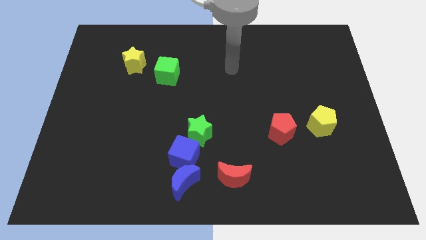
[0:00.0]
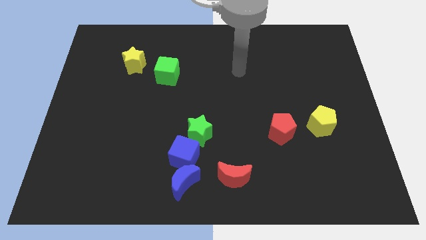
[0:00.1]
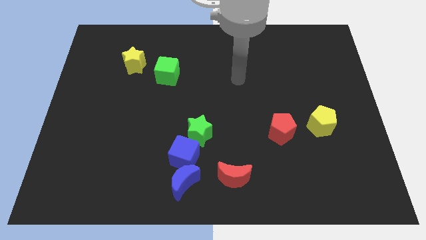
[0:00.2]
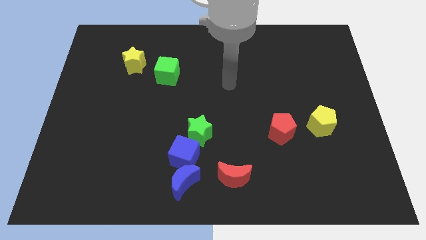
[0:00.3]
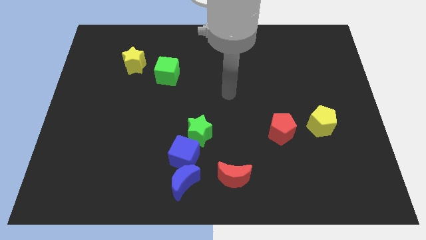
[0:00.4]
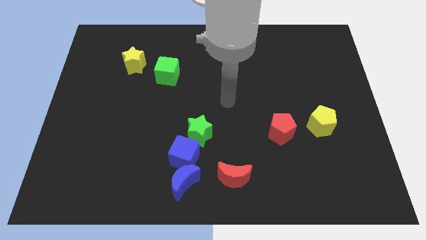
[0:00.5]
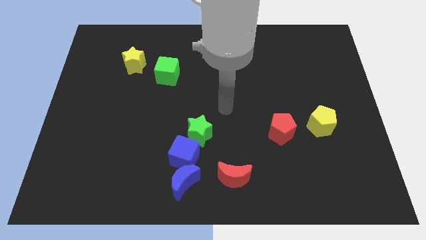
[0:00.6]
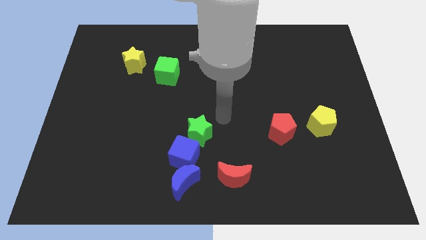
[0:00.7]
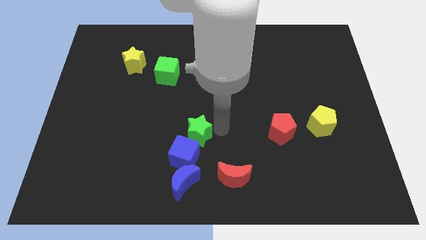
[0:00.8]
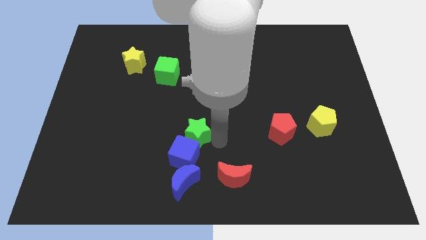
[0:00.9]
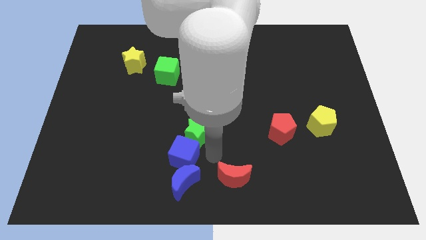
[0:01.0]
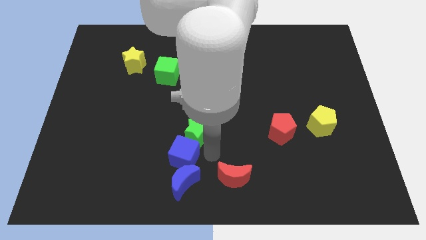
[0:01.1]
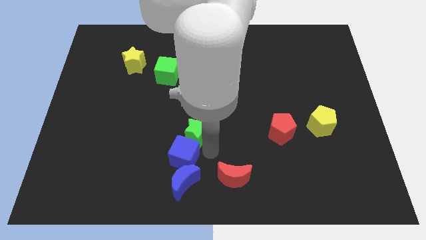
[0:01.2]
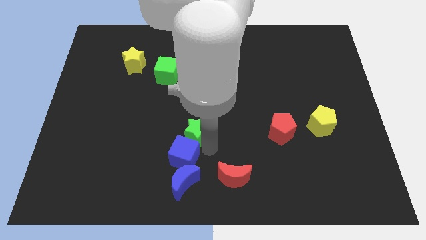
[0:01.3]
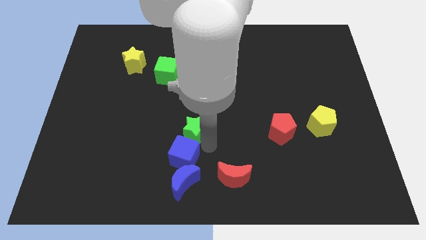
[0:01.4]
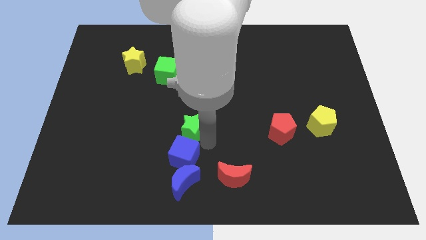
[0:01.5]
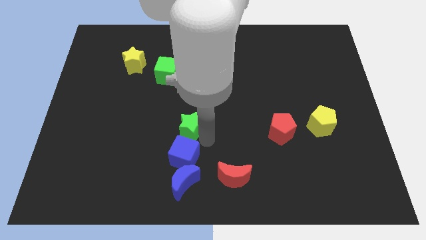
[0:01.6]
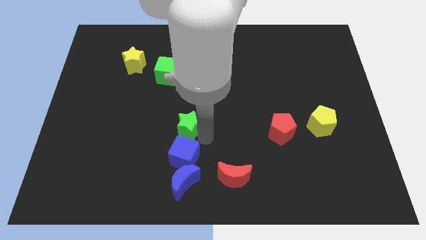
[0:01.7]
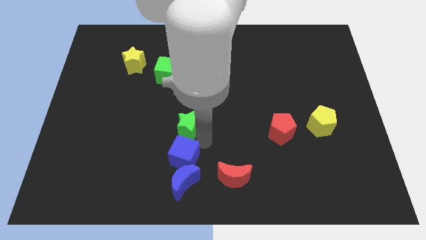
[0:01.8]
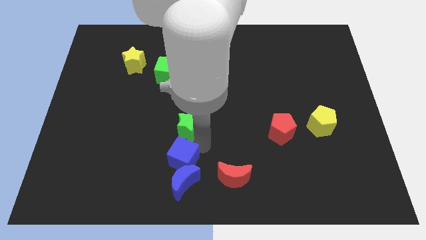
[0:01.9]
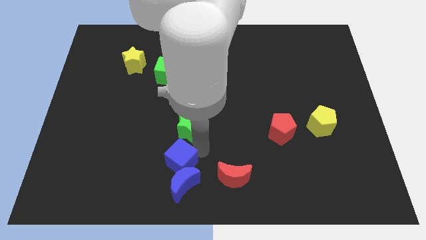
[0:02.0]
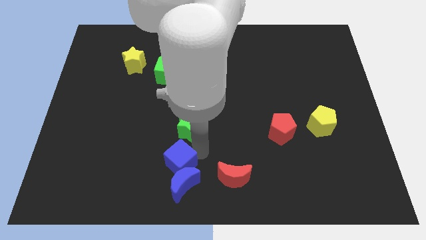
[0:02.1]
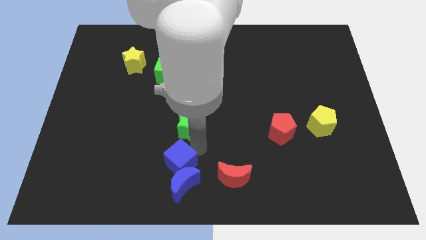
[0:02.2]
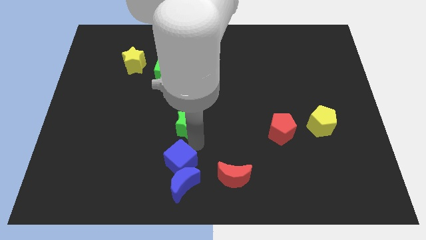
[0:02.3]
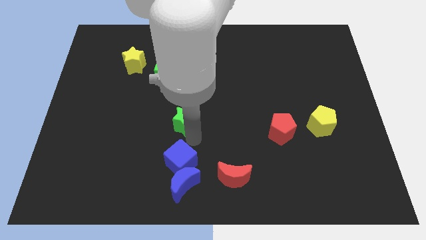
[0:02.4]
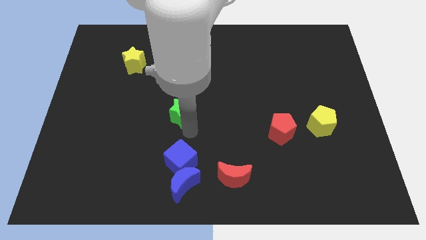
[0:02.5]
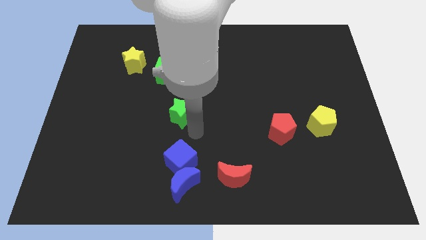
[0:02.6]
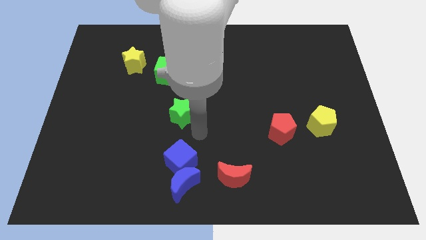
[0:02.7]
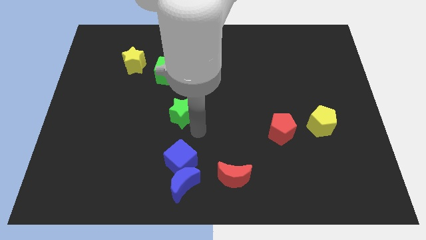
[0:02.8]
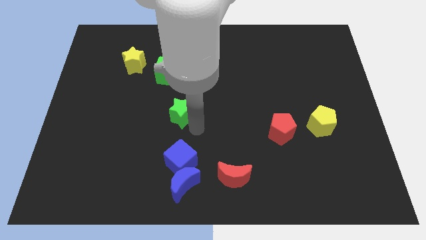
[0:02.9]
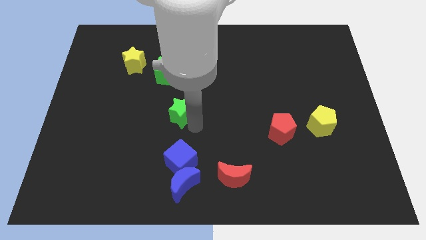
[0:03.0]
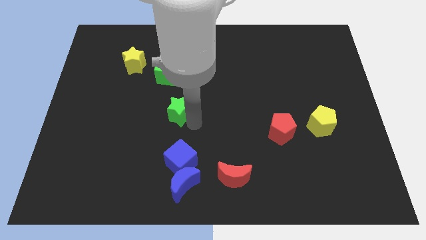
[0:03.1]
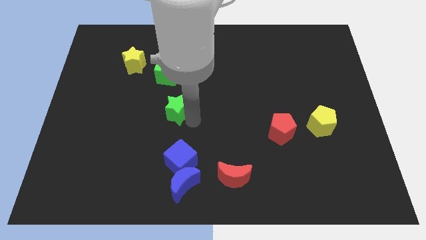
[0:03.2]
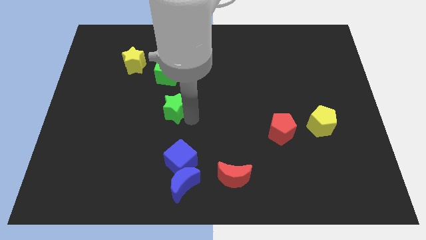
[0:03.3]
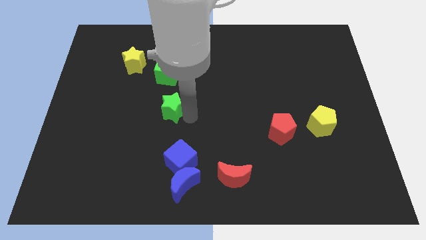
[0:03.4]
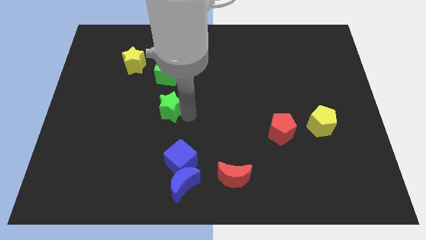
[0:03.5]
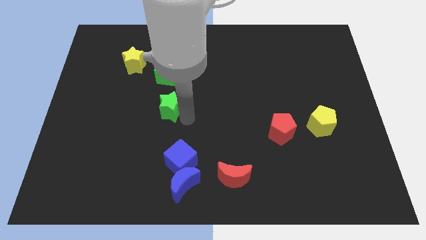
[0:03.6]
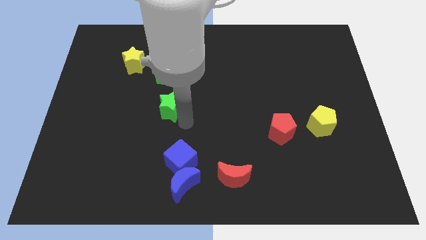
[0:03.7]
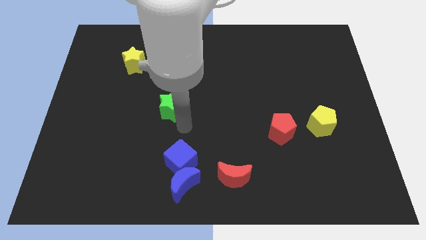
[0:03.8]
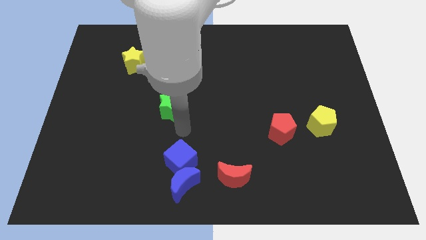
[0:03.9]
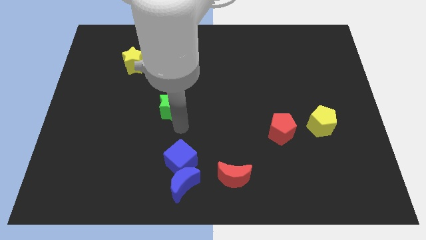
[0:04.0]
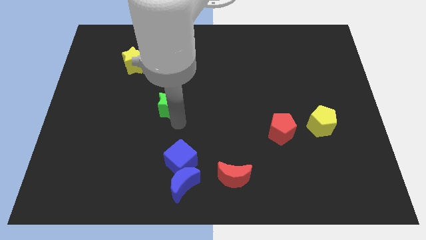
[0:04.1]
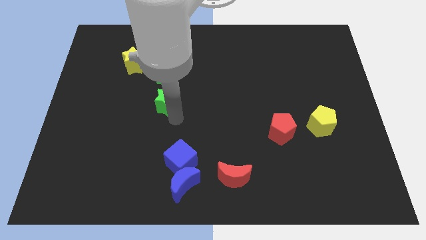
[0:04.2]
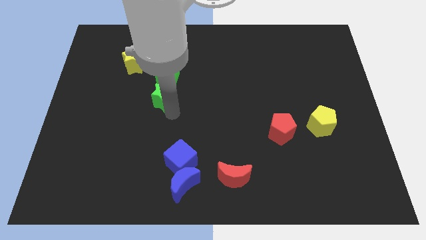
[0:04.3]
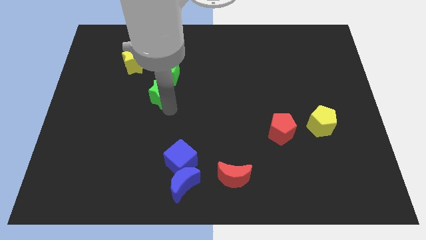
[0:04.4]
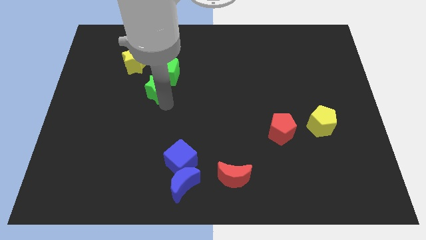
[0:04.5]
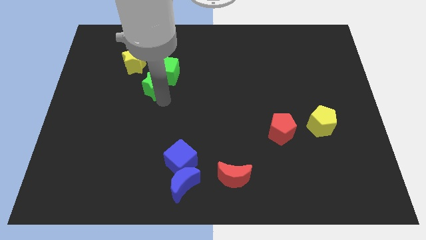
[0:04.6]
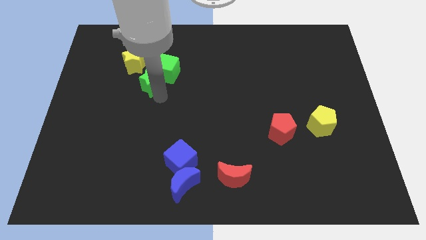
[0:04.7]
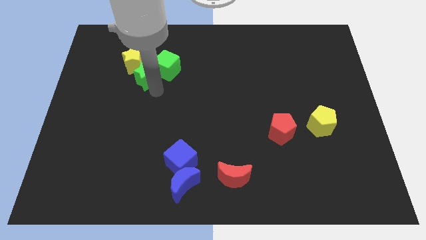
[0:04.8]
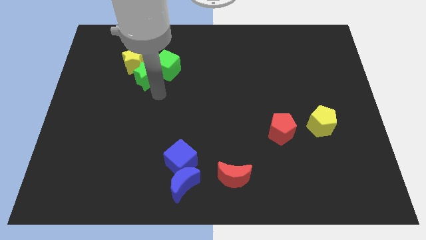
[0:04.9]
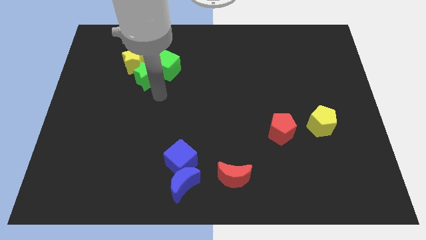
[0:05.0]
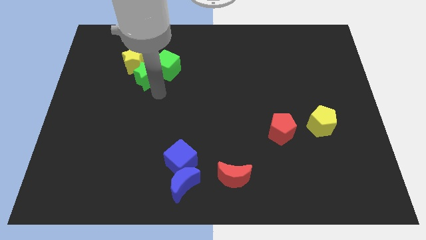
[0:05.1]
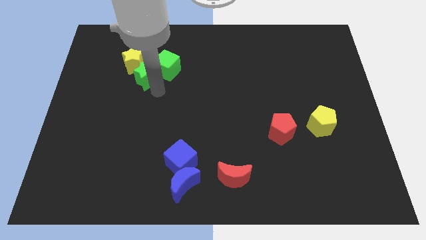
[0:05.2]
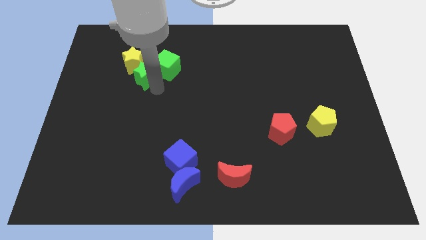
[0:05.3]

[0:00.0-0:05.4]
push the green star next to the yellow star

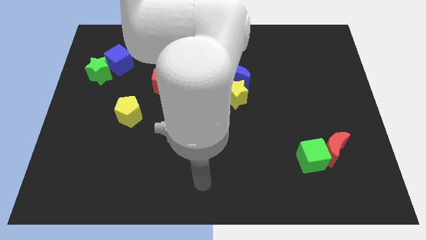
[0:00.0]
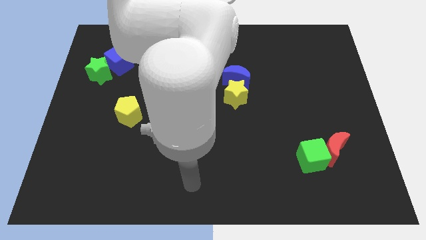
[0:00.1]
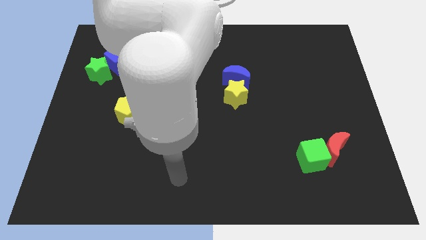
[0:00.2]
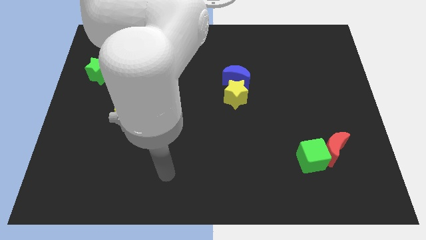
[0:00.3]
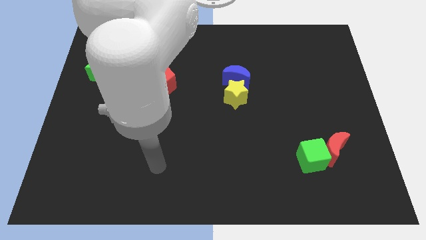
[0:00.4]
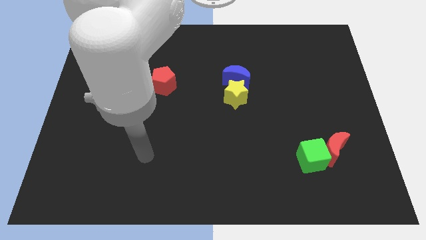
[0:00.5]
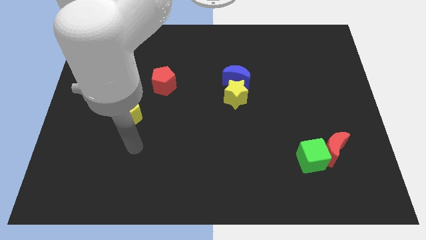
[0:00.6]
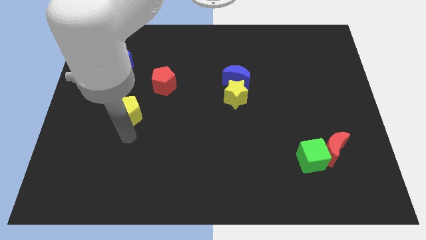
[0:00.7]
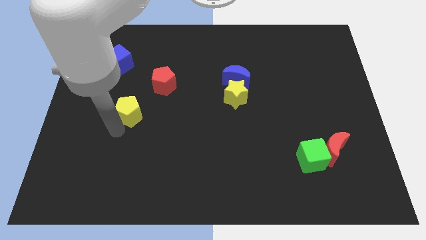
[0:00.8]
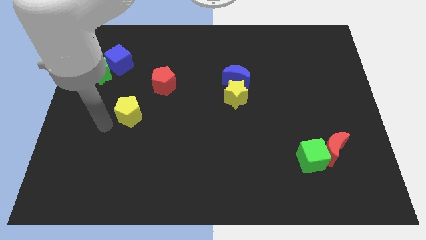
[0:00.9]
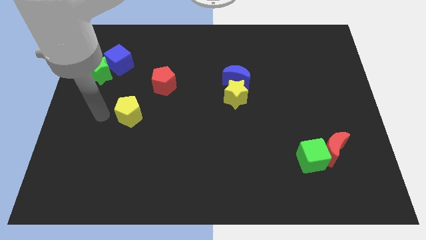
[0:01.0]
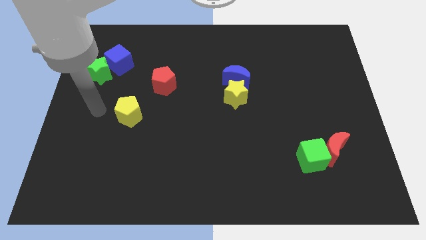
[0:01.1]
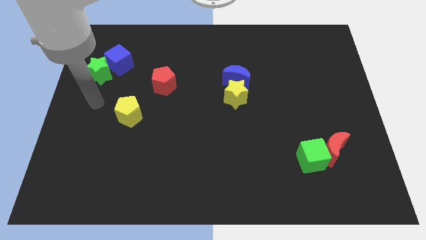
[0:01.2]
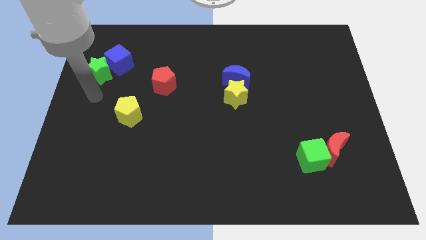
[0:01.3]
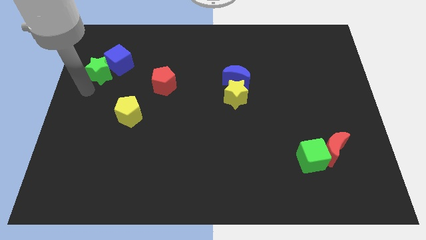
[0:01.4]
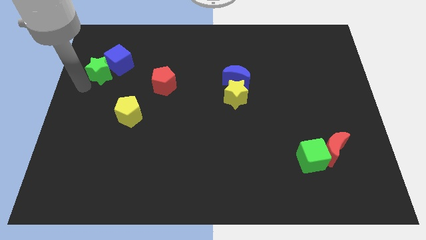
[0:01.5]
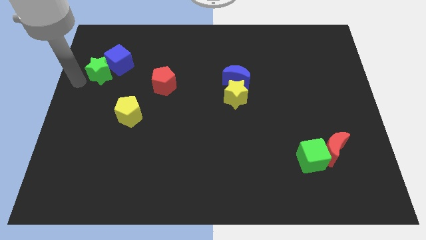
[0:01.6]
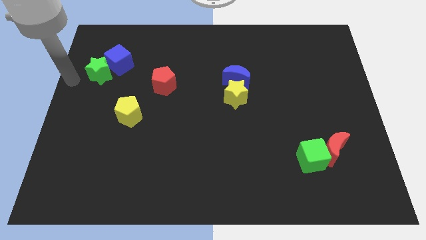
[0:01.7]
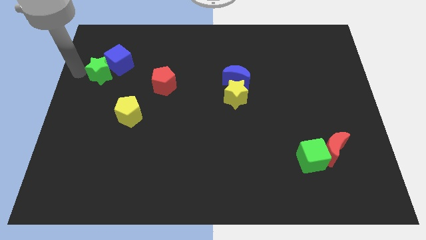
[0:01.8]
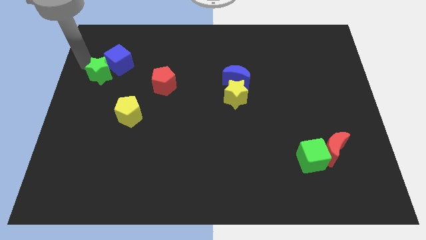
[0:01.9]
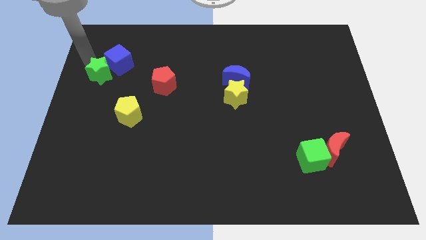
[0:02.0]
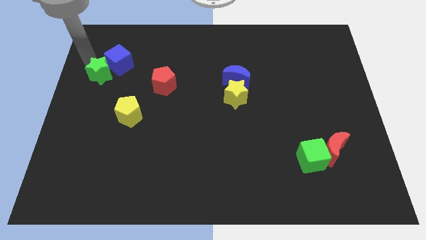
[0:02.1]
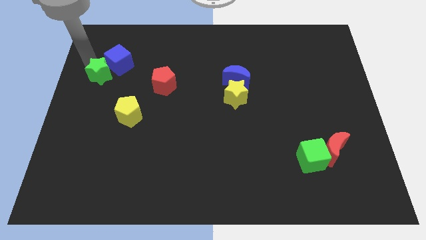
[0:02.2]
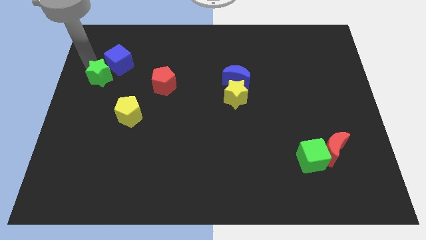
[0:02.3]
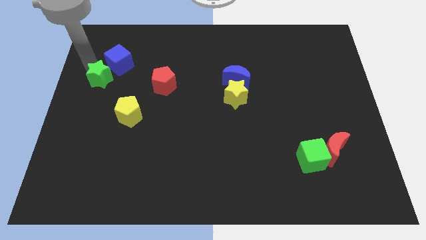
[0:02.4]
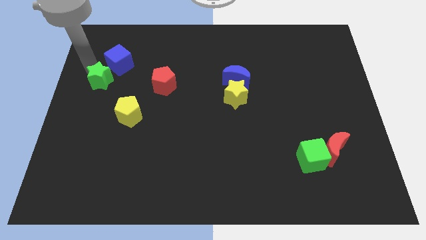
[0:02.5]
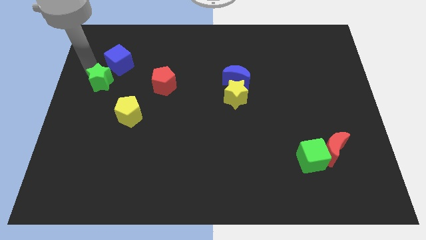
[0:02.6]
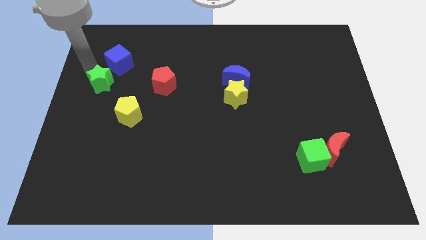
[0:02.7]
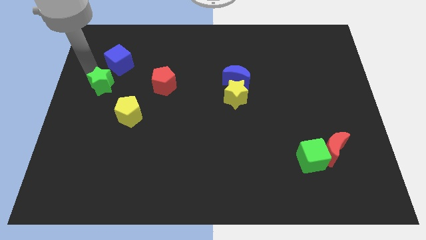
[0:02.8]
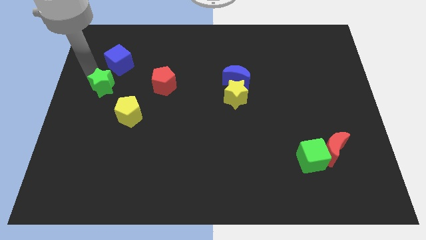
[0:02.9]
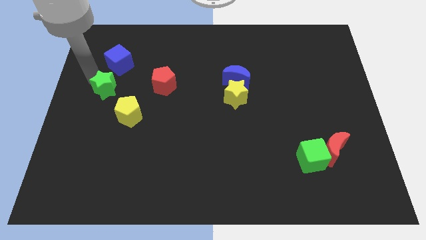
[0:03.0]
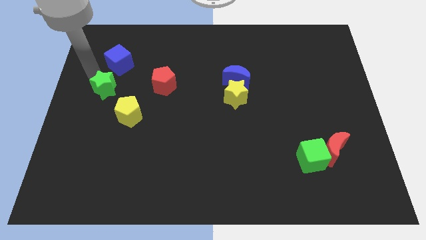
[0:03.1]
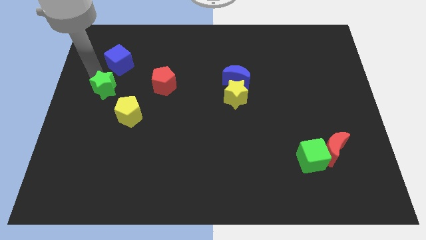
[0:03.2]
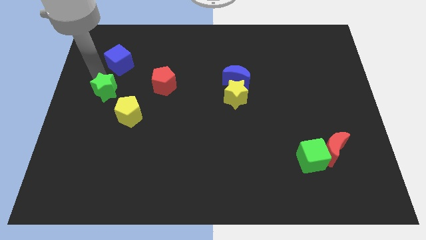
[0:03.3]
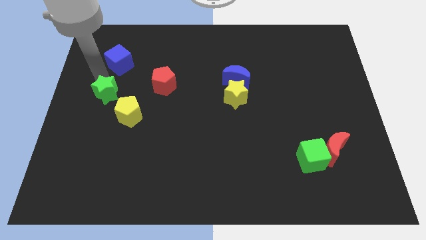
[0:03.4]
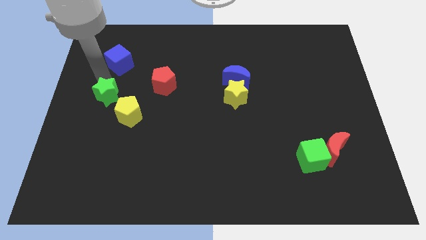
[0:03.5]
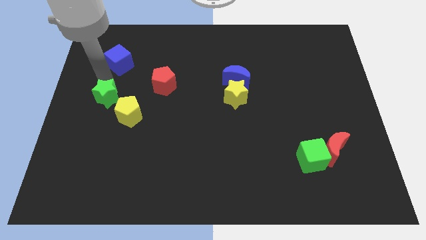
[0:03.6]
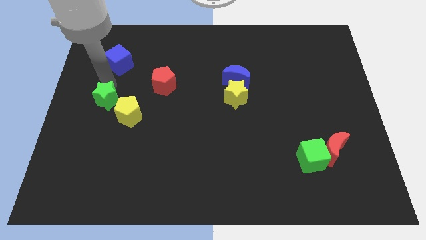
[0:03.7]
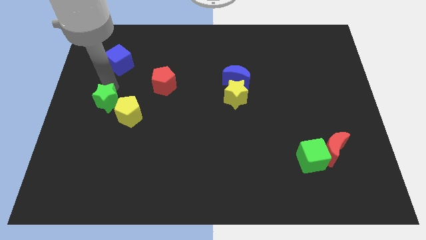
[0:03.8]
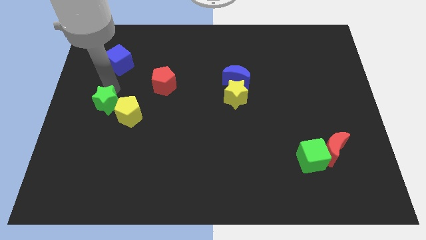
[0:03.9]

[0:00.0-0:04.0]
slide the green star towards the yellow pentagon
